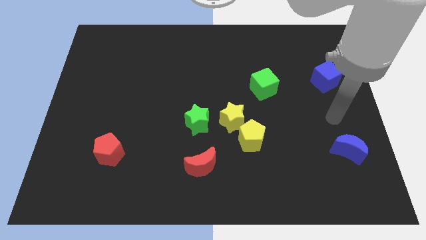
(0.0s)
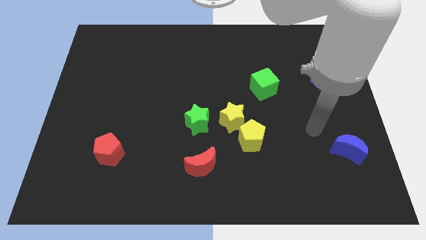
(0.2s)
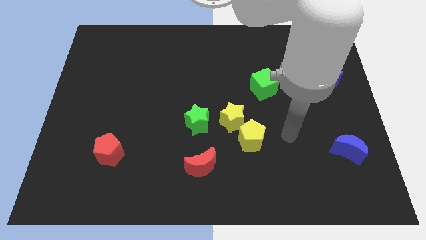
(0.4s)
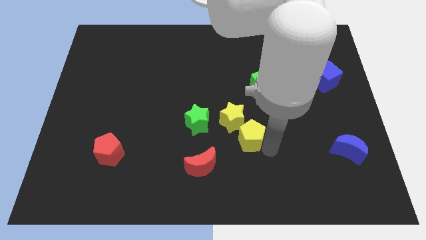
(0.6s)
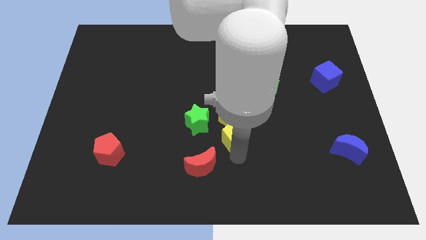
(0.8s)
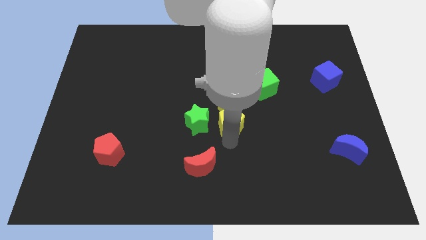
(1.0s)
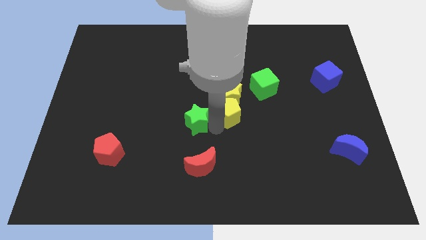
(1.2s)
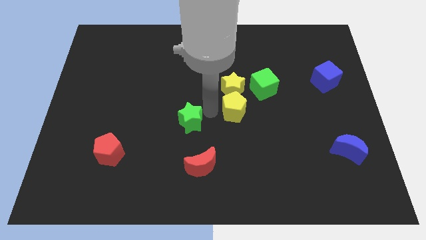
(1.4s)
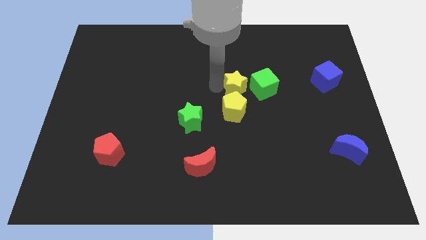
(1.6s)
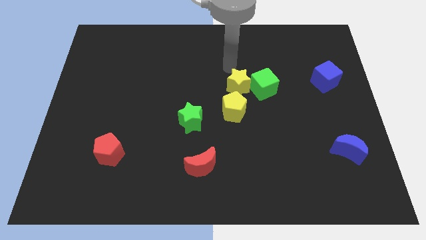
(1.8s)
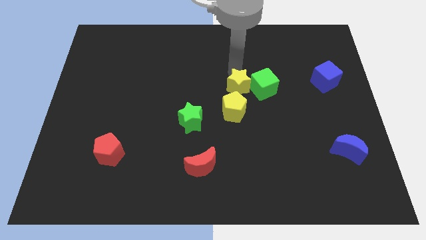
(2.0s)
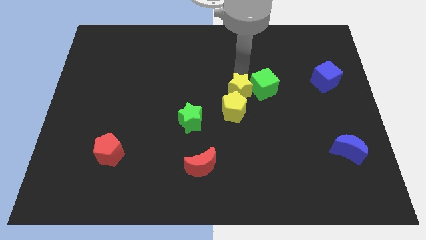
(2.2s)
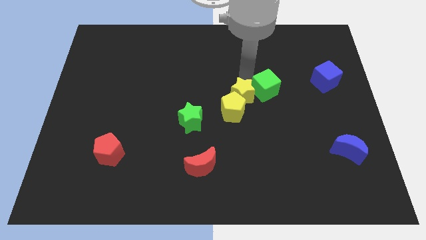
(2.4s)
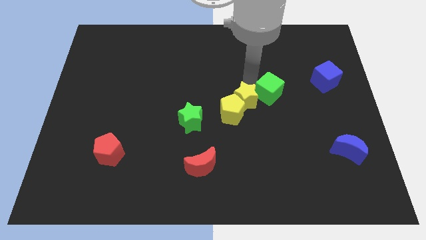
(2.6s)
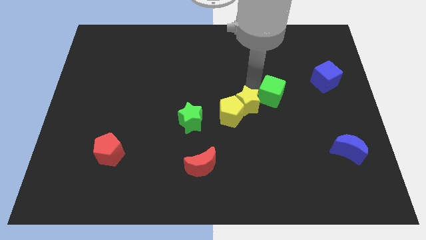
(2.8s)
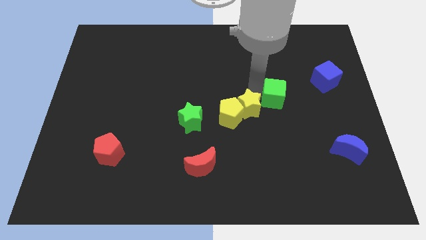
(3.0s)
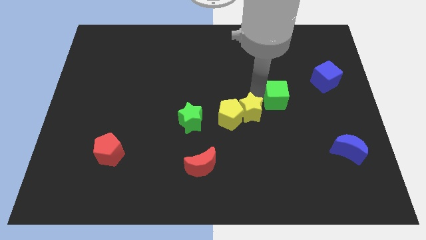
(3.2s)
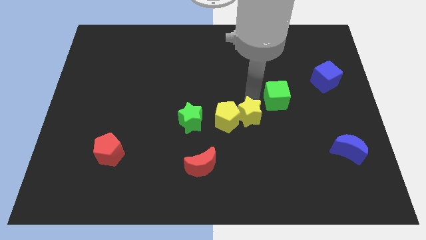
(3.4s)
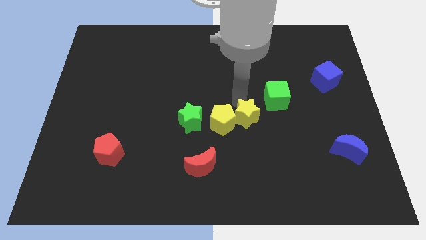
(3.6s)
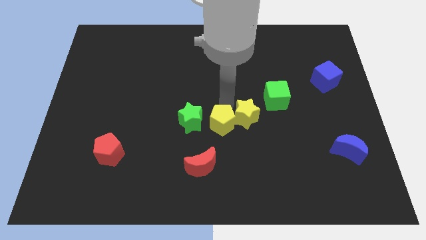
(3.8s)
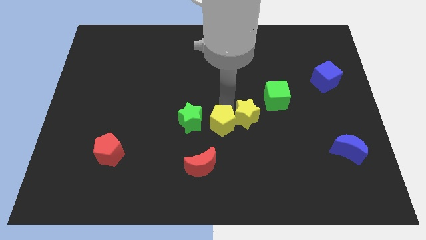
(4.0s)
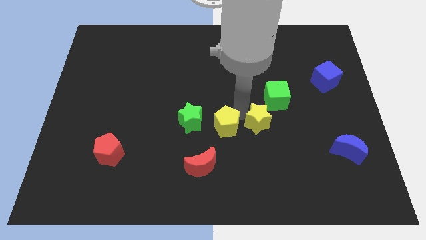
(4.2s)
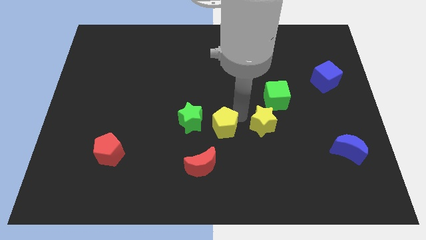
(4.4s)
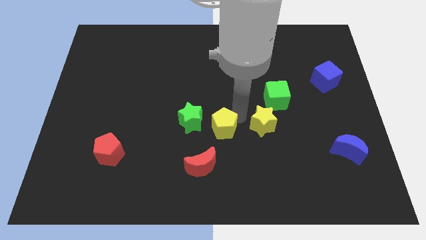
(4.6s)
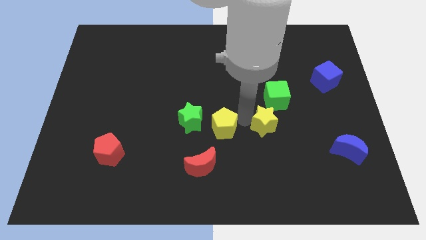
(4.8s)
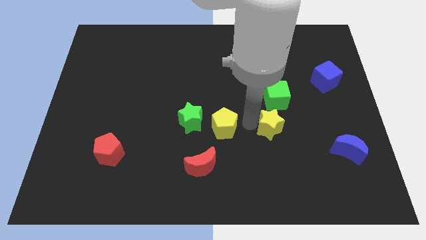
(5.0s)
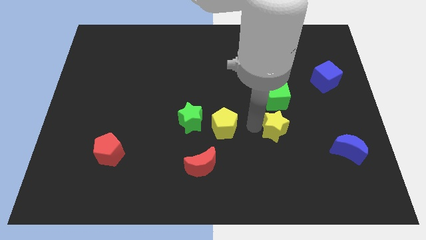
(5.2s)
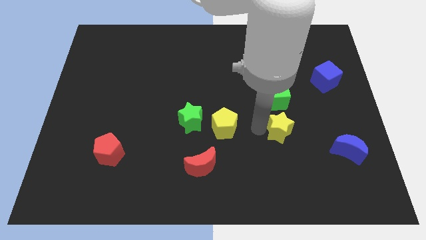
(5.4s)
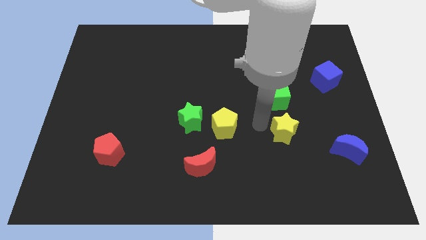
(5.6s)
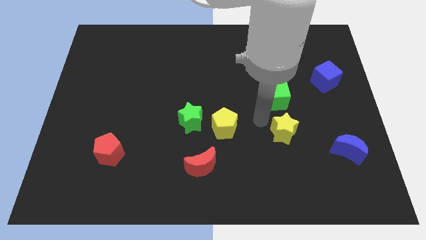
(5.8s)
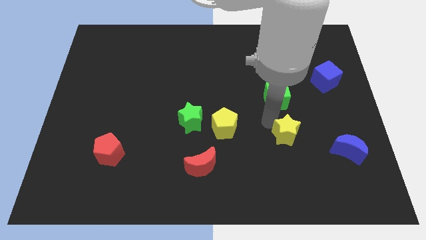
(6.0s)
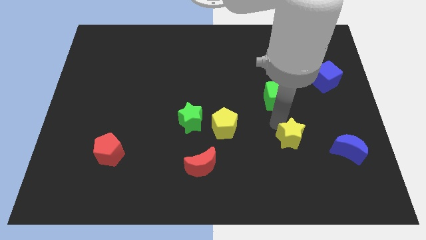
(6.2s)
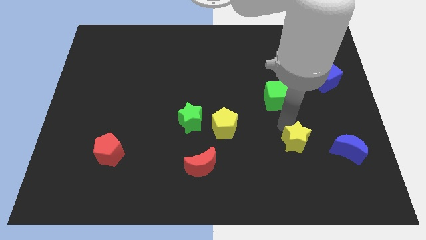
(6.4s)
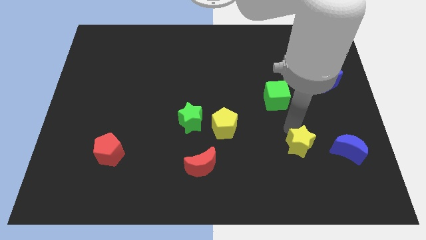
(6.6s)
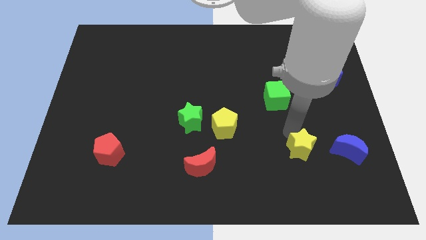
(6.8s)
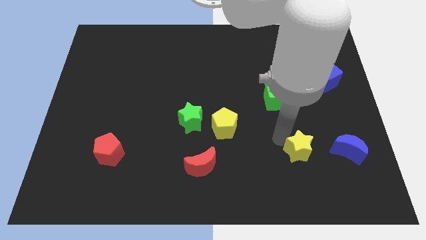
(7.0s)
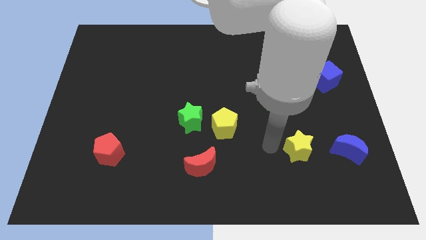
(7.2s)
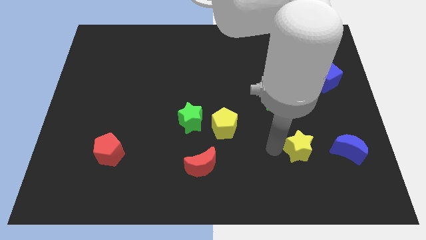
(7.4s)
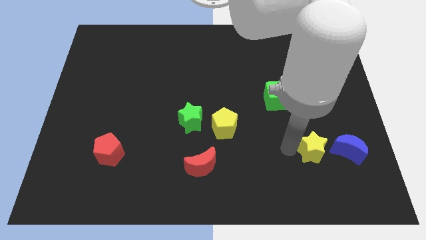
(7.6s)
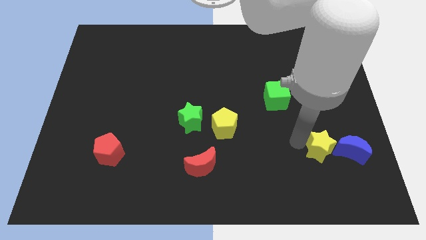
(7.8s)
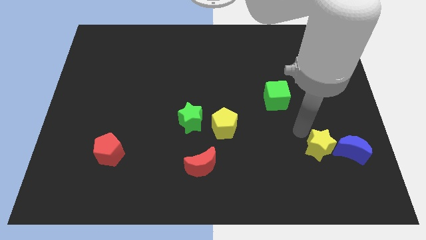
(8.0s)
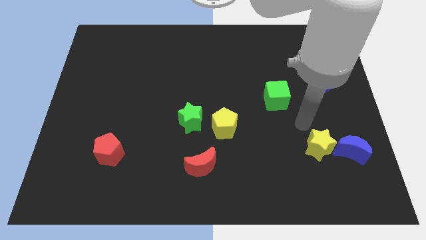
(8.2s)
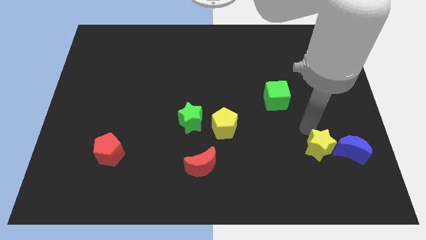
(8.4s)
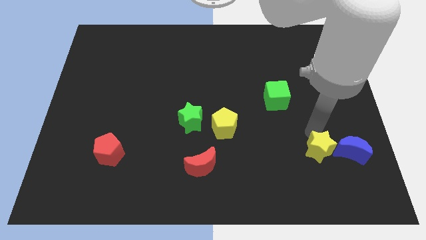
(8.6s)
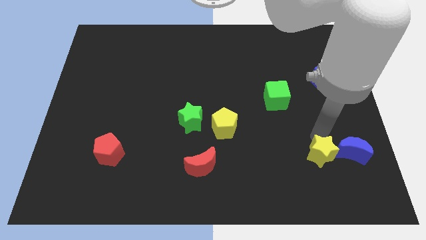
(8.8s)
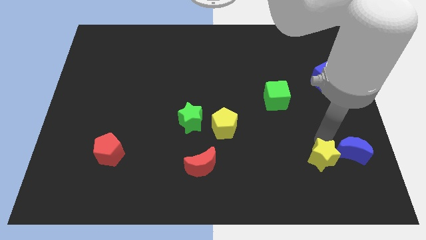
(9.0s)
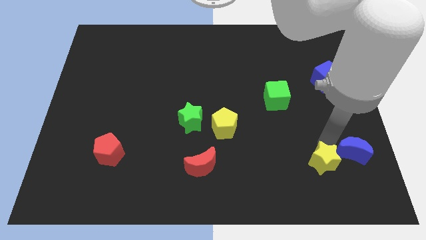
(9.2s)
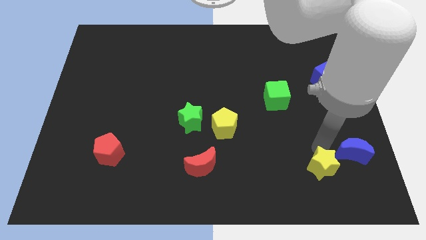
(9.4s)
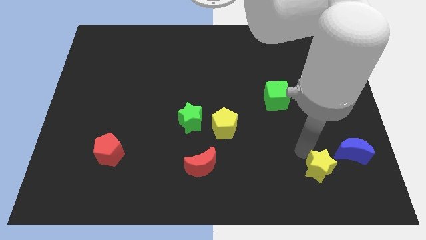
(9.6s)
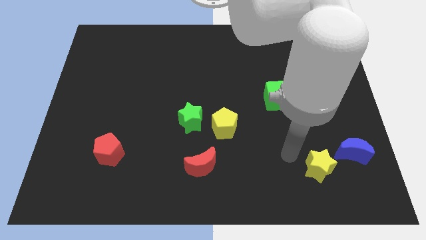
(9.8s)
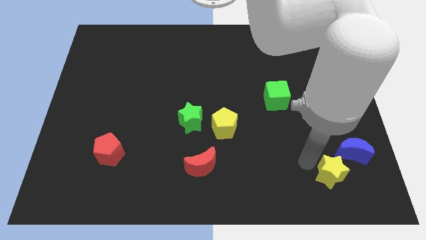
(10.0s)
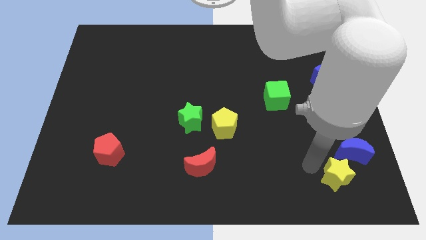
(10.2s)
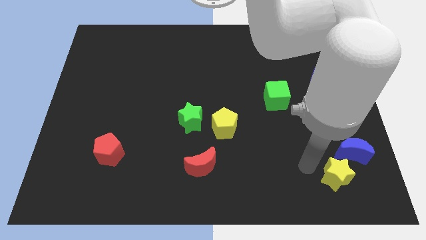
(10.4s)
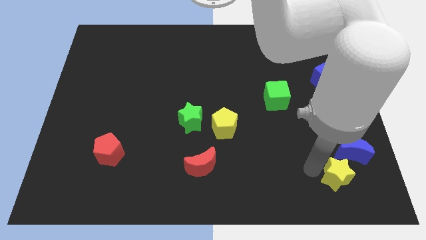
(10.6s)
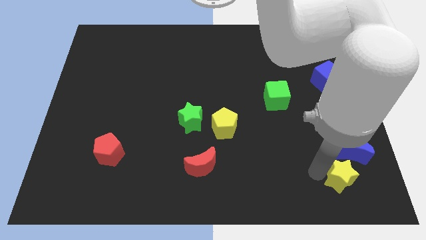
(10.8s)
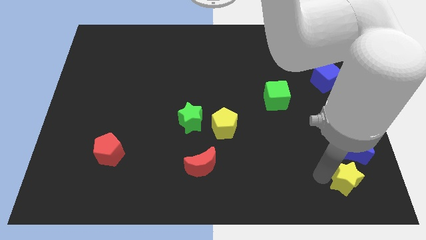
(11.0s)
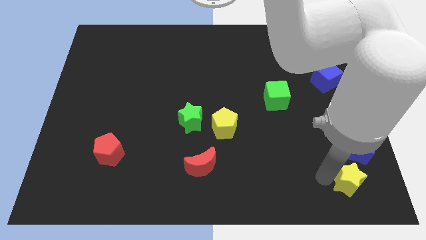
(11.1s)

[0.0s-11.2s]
slide the yellow star to the bottom right corner

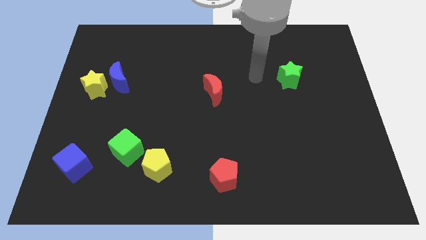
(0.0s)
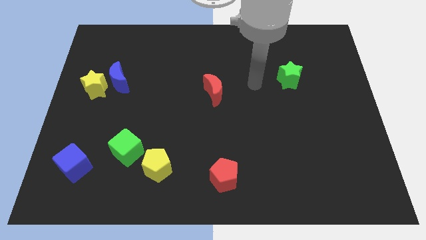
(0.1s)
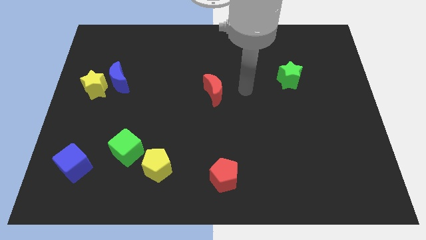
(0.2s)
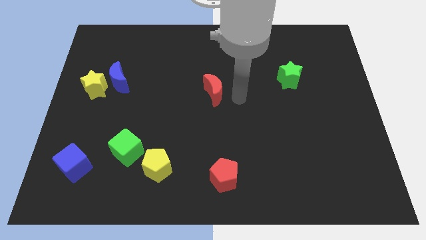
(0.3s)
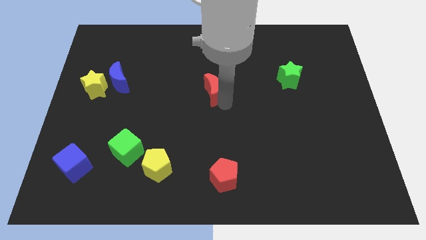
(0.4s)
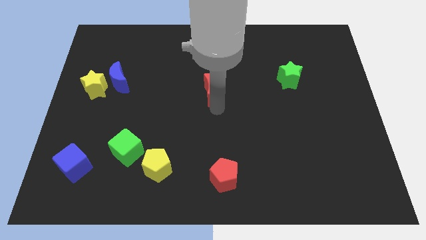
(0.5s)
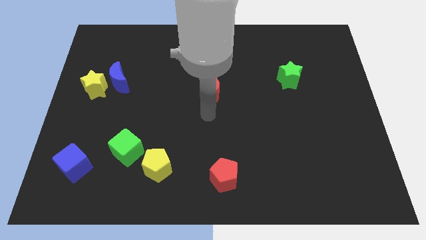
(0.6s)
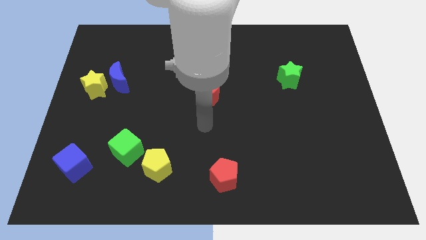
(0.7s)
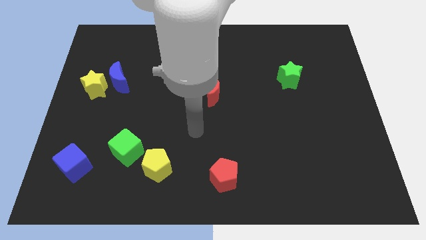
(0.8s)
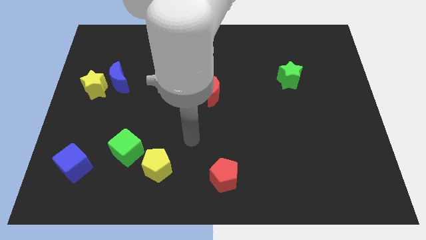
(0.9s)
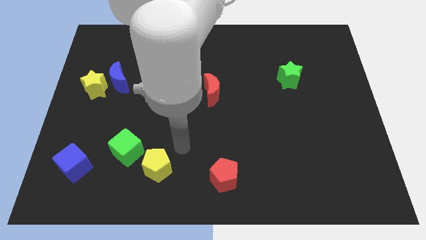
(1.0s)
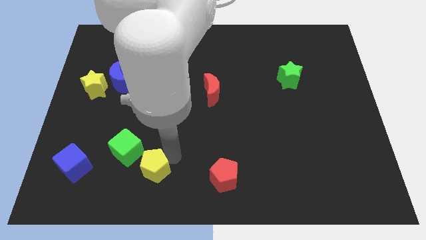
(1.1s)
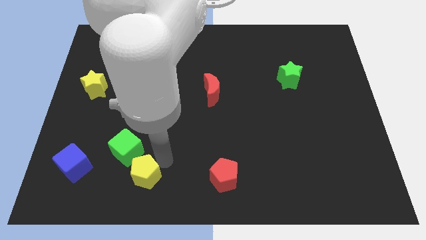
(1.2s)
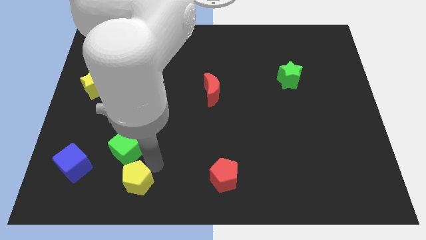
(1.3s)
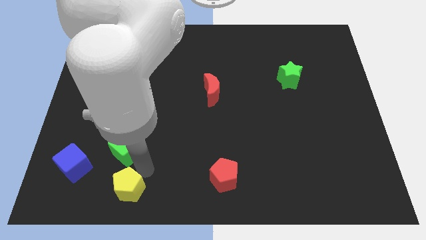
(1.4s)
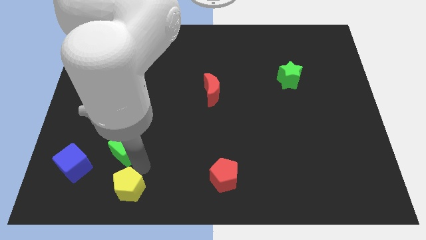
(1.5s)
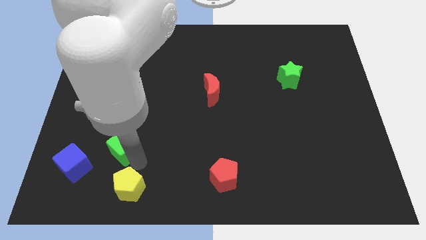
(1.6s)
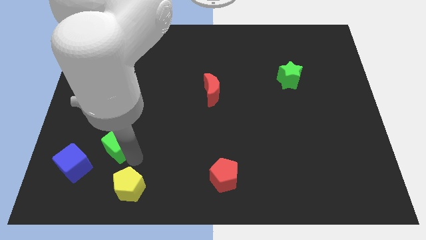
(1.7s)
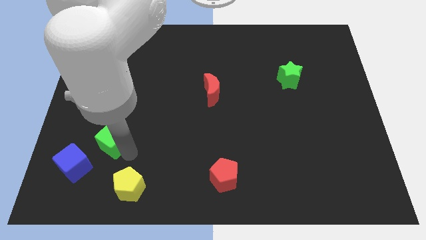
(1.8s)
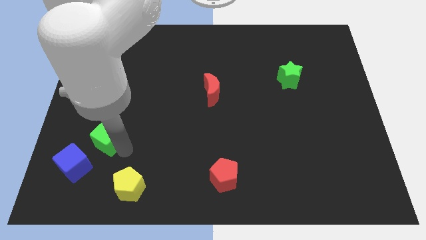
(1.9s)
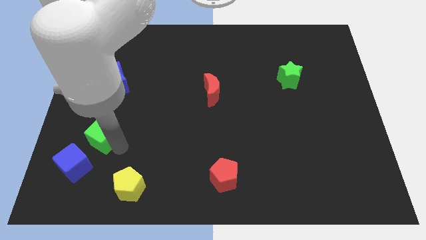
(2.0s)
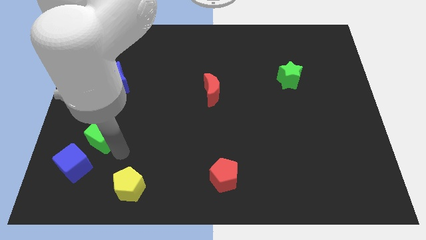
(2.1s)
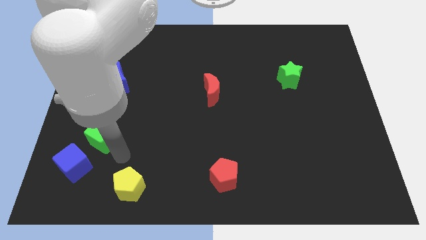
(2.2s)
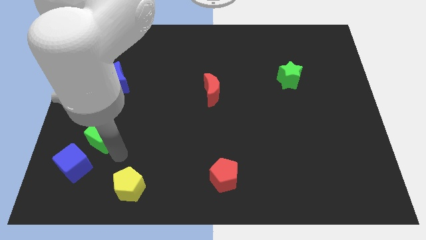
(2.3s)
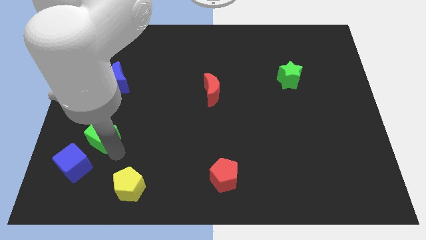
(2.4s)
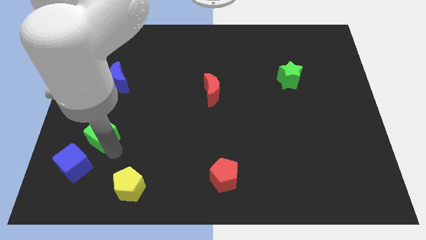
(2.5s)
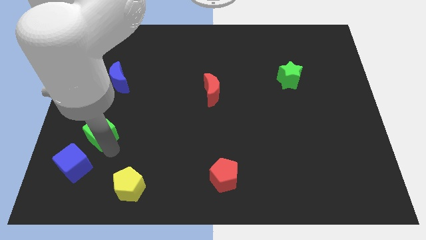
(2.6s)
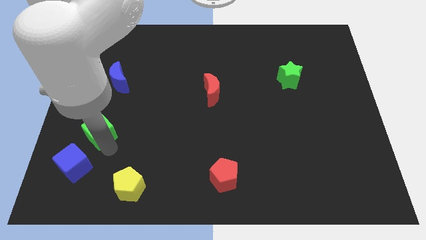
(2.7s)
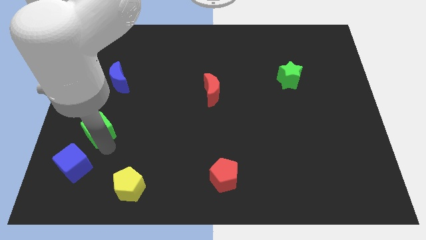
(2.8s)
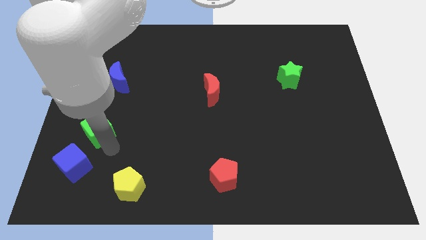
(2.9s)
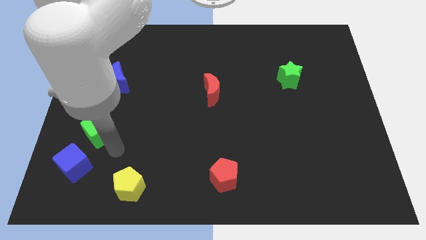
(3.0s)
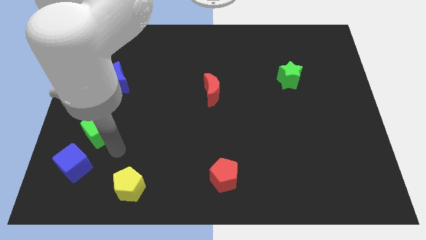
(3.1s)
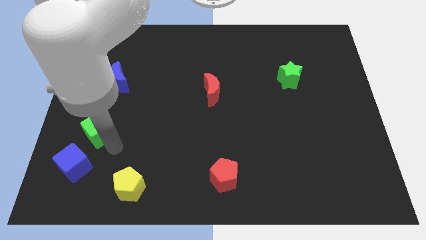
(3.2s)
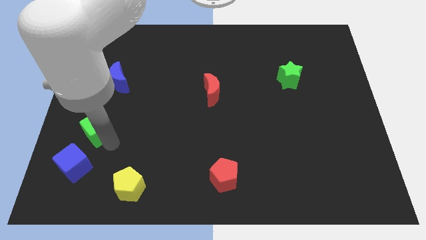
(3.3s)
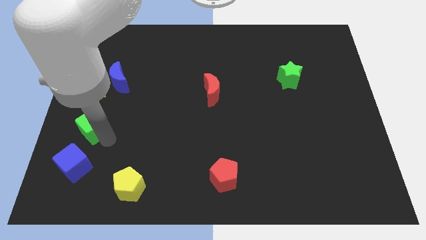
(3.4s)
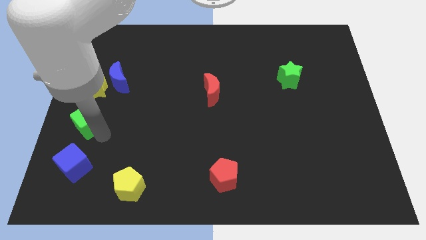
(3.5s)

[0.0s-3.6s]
slide the green cube to the left side of the board
